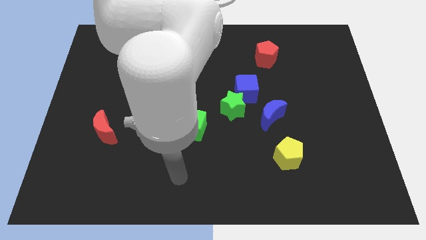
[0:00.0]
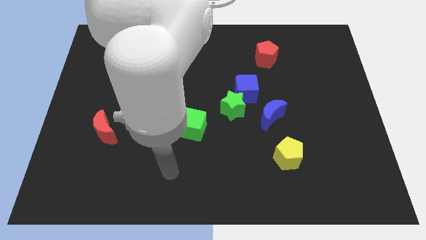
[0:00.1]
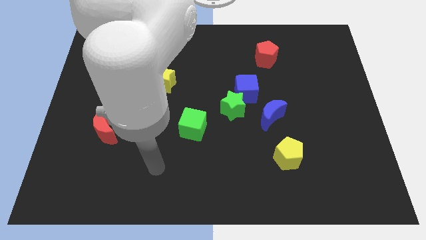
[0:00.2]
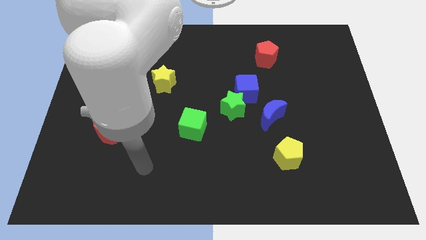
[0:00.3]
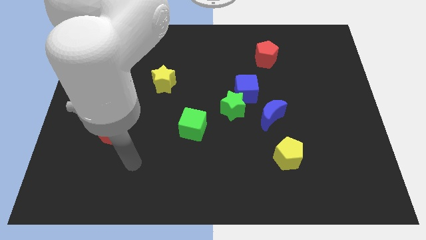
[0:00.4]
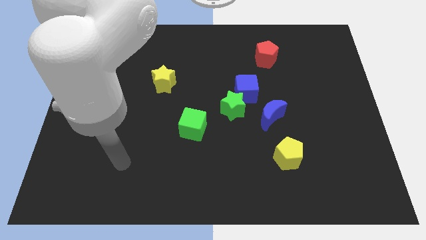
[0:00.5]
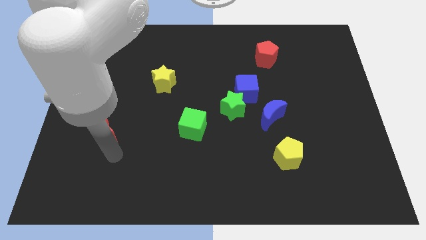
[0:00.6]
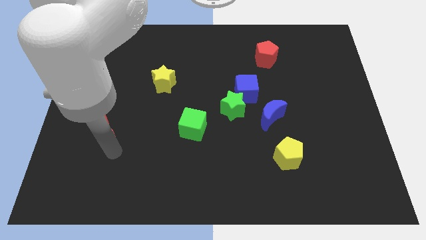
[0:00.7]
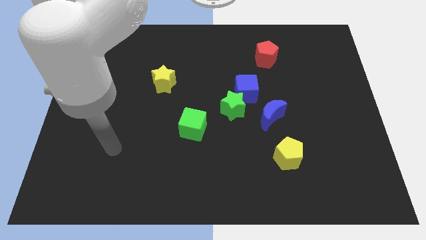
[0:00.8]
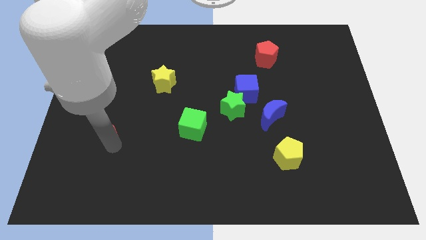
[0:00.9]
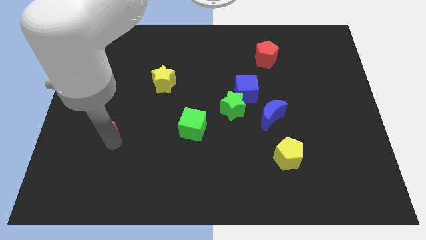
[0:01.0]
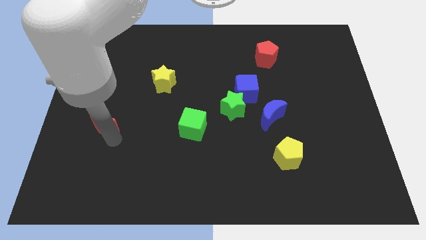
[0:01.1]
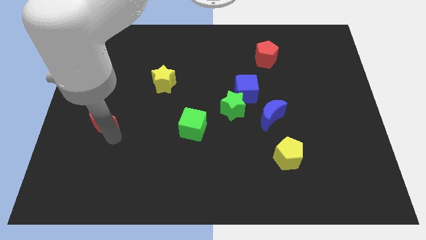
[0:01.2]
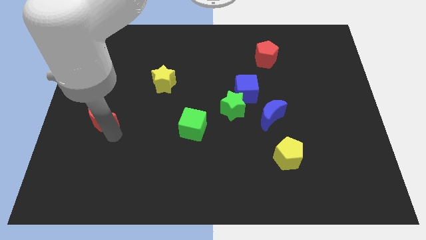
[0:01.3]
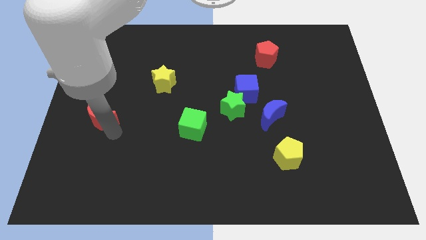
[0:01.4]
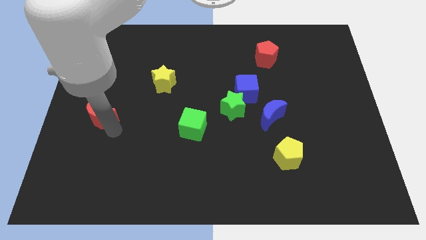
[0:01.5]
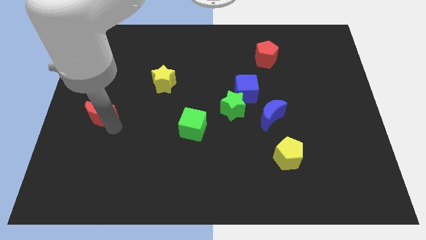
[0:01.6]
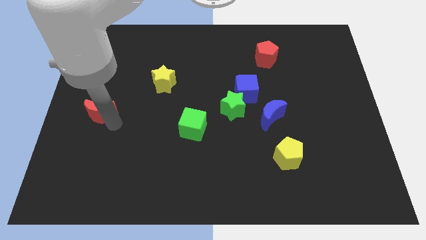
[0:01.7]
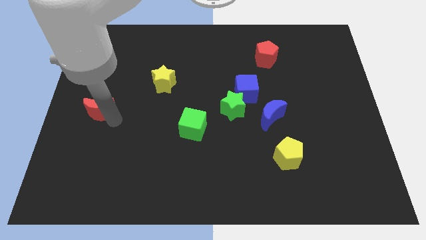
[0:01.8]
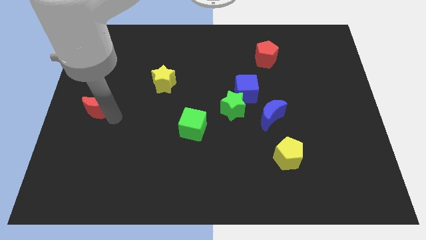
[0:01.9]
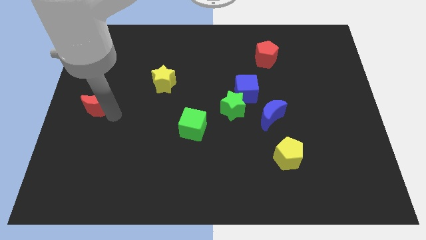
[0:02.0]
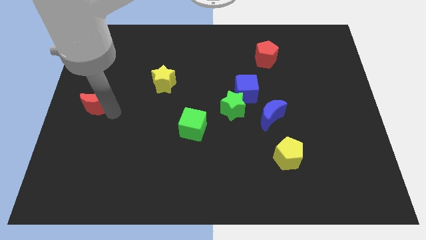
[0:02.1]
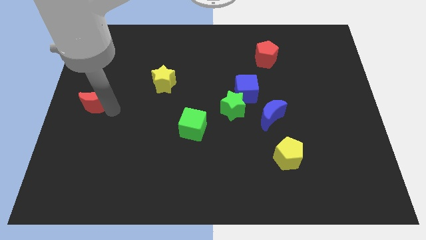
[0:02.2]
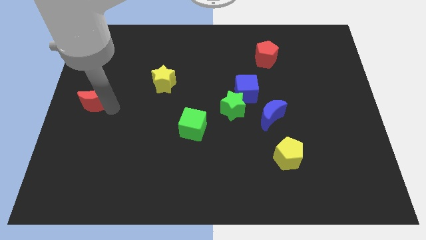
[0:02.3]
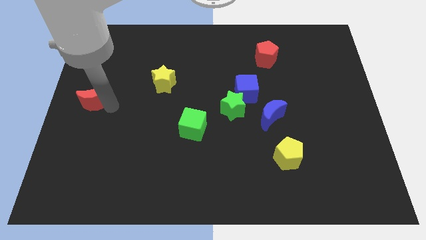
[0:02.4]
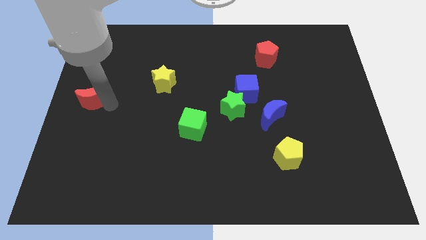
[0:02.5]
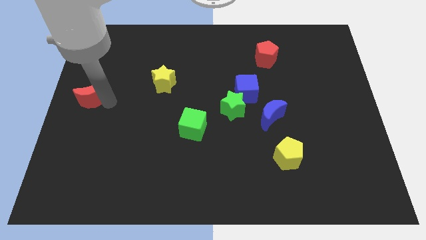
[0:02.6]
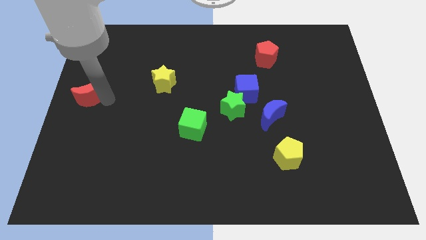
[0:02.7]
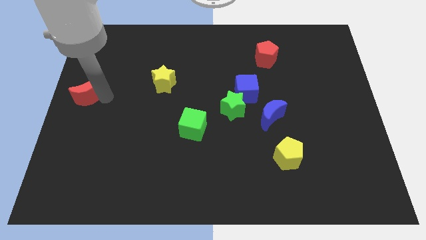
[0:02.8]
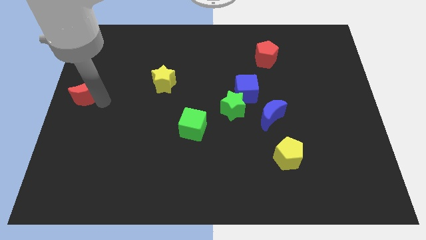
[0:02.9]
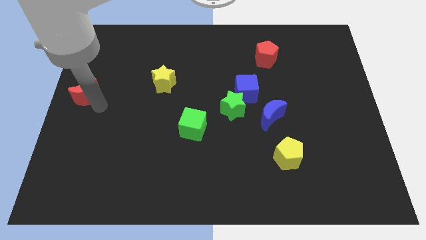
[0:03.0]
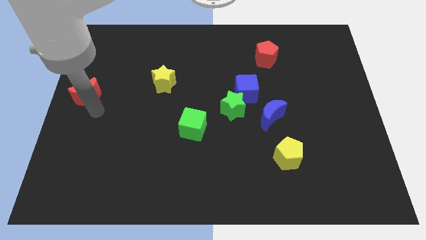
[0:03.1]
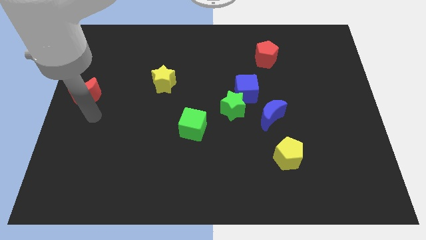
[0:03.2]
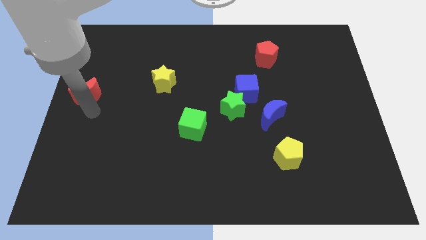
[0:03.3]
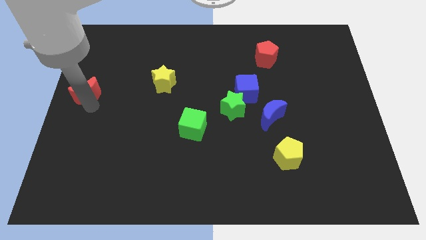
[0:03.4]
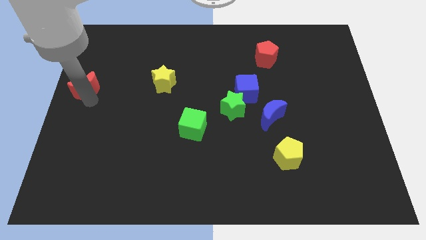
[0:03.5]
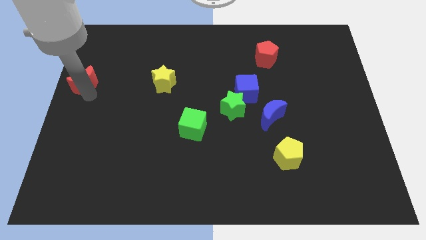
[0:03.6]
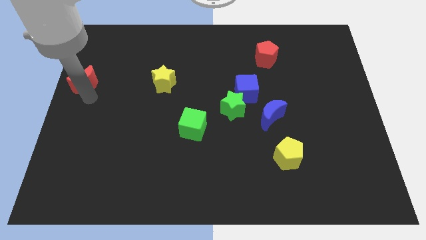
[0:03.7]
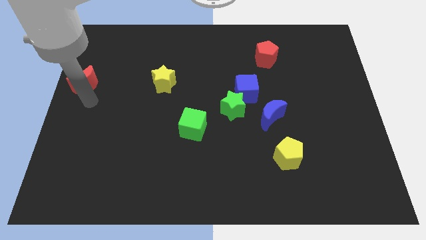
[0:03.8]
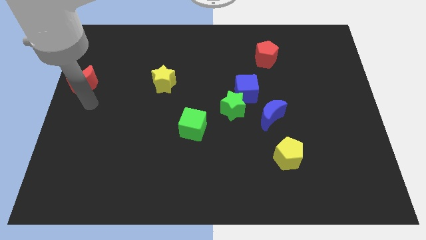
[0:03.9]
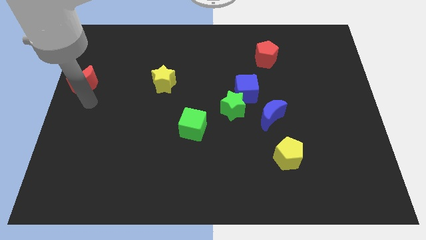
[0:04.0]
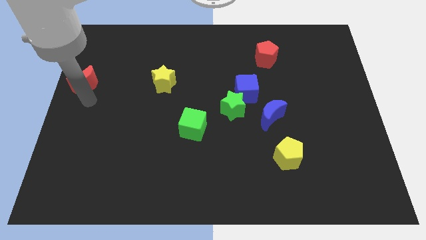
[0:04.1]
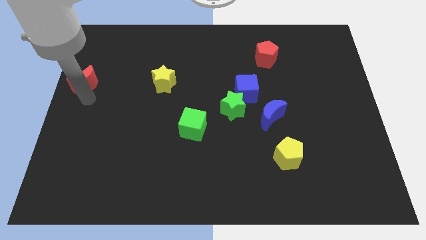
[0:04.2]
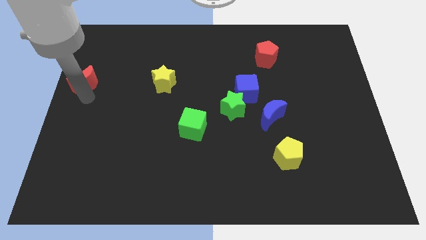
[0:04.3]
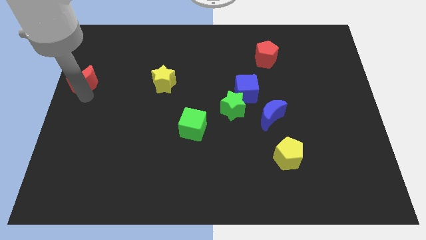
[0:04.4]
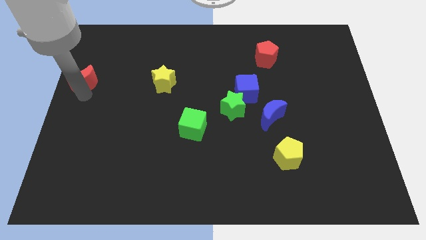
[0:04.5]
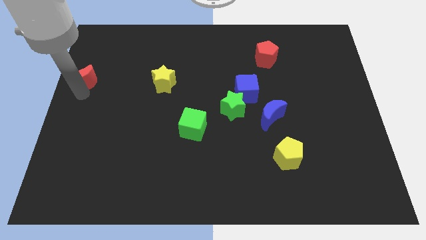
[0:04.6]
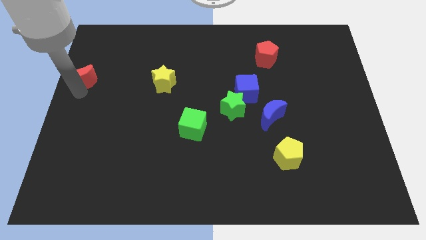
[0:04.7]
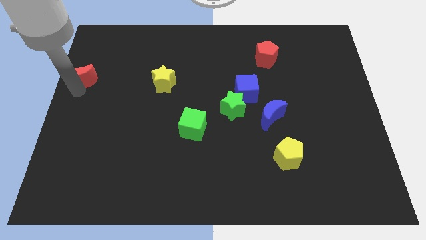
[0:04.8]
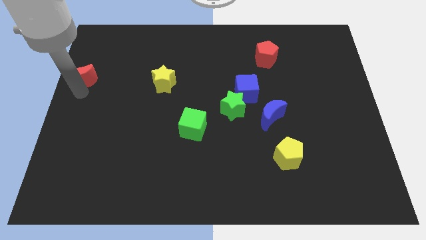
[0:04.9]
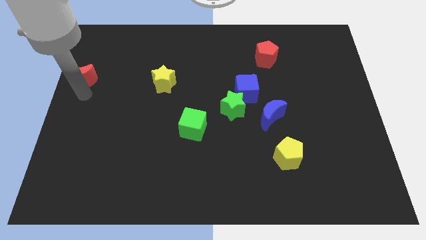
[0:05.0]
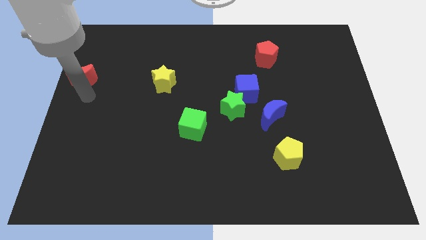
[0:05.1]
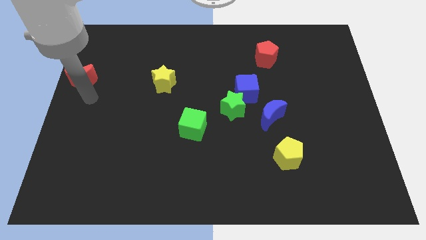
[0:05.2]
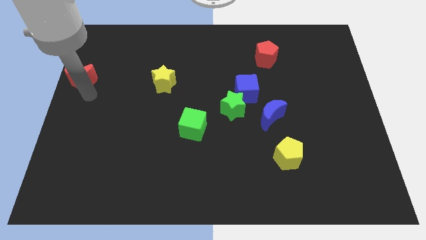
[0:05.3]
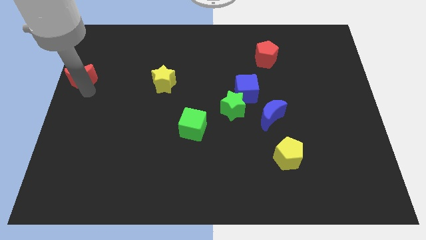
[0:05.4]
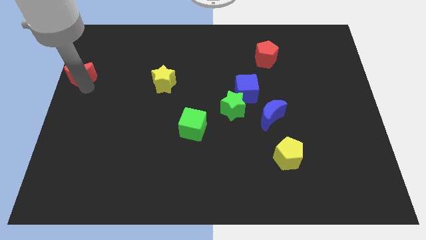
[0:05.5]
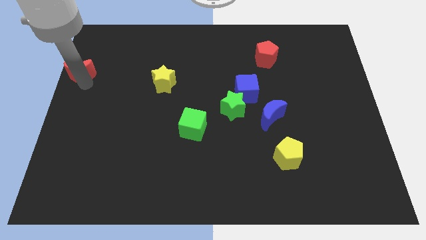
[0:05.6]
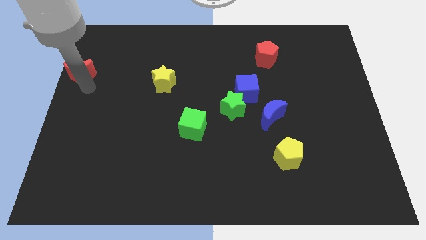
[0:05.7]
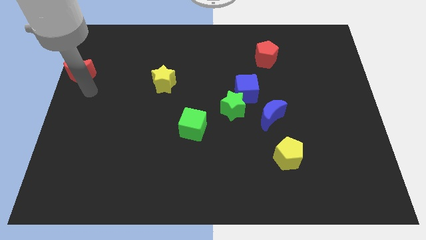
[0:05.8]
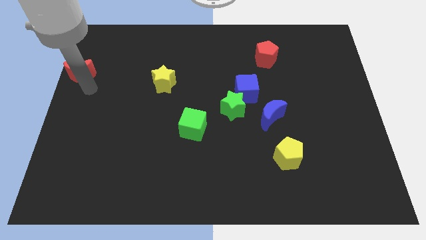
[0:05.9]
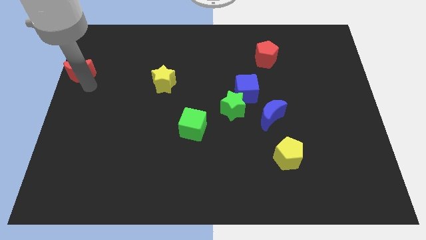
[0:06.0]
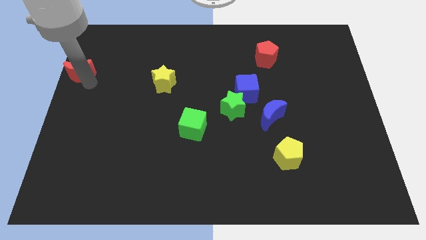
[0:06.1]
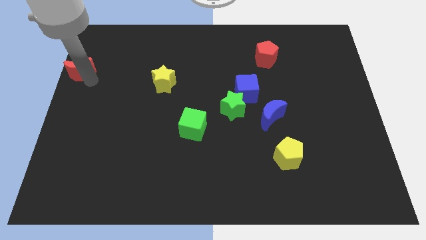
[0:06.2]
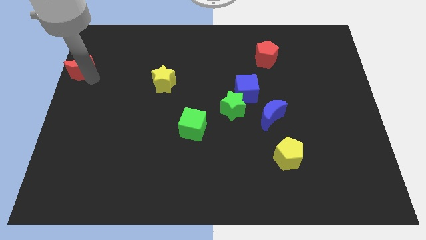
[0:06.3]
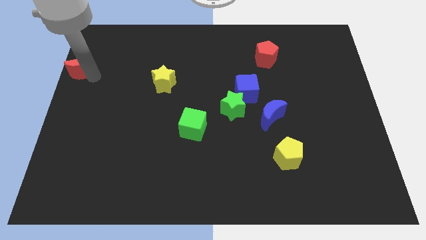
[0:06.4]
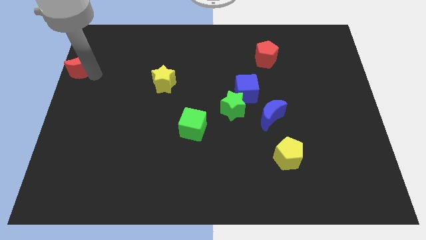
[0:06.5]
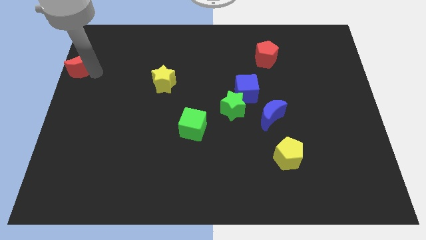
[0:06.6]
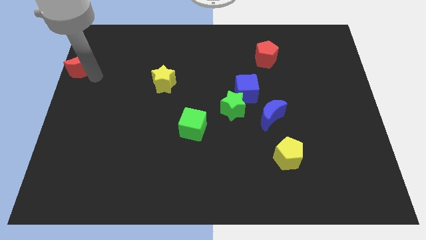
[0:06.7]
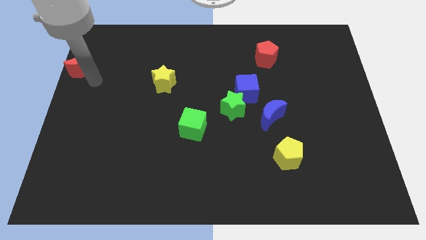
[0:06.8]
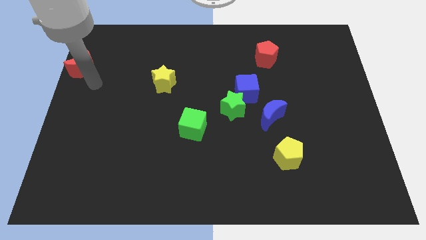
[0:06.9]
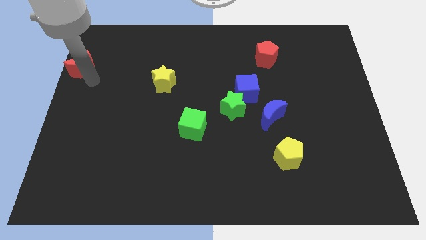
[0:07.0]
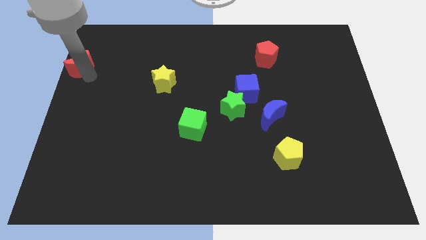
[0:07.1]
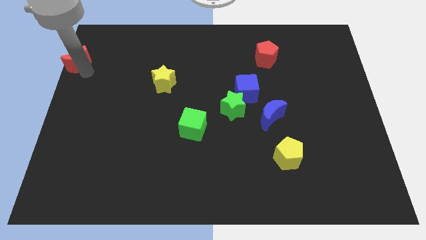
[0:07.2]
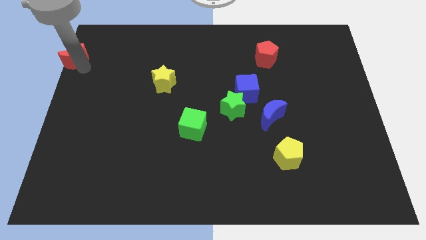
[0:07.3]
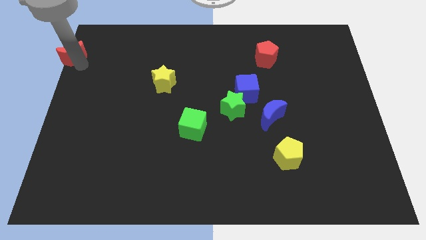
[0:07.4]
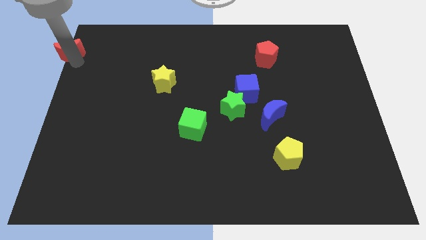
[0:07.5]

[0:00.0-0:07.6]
push the red moon to the top left
